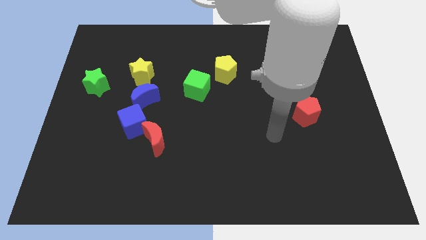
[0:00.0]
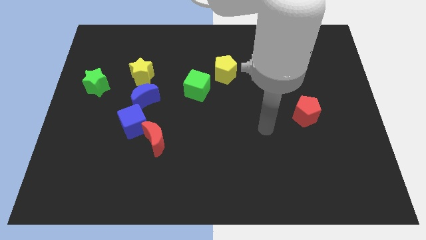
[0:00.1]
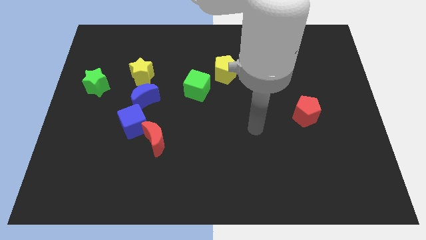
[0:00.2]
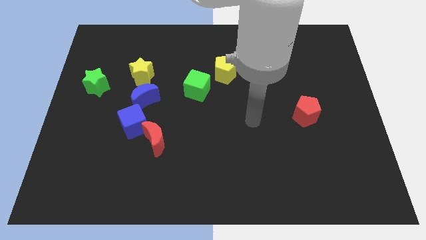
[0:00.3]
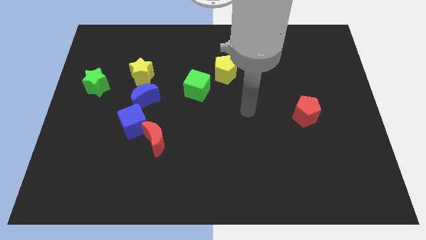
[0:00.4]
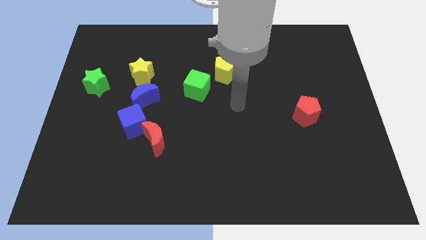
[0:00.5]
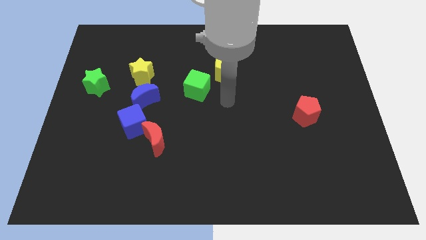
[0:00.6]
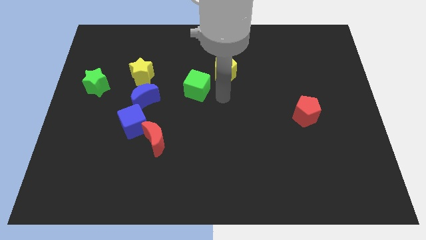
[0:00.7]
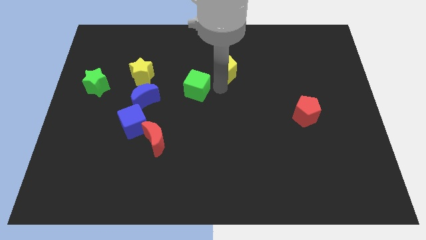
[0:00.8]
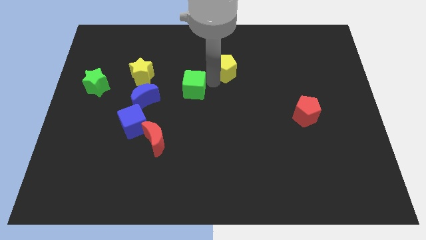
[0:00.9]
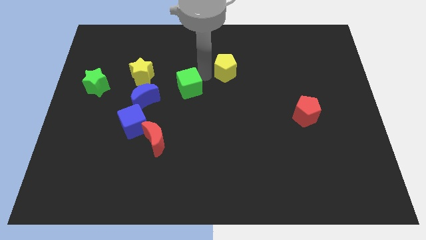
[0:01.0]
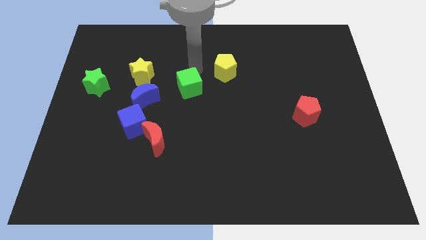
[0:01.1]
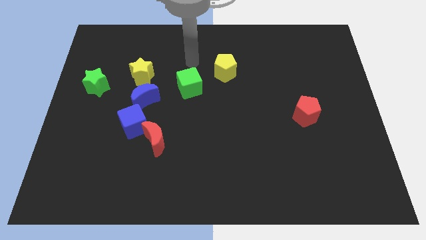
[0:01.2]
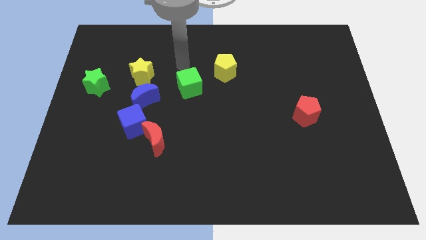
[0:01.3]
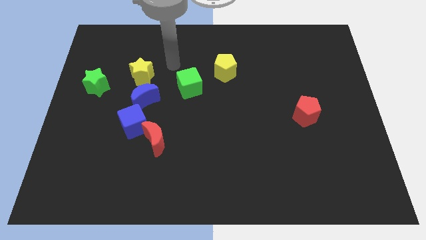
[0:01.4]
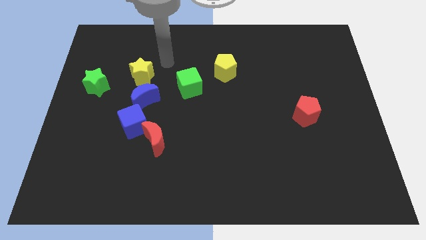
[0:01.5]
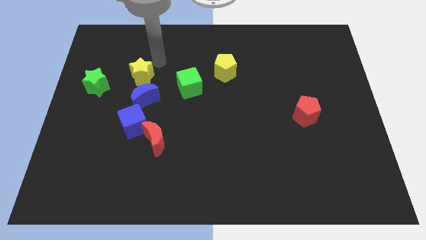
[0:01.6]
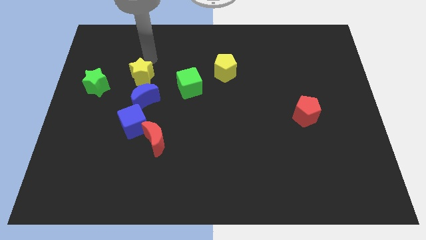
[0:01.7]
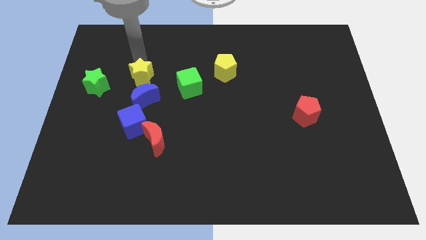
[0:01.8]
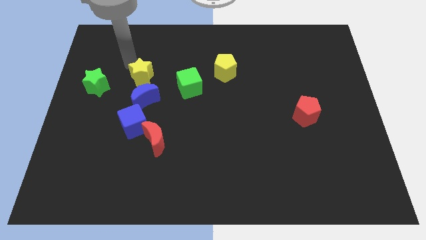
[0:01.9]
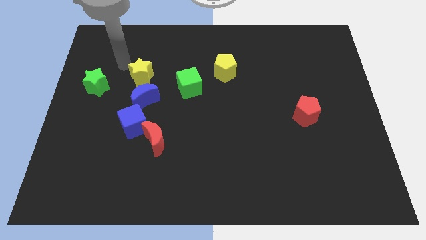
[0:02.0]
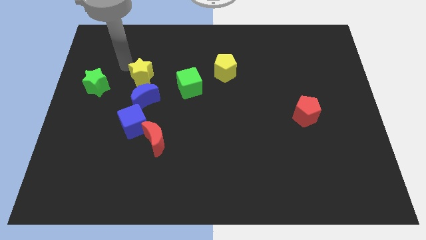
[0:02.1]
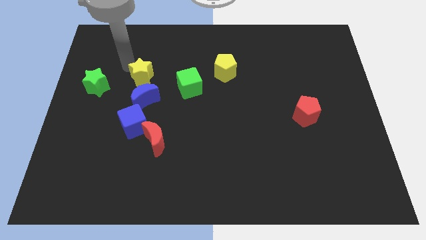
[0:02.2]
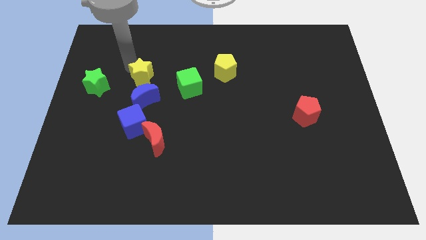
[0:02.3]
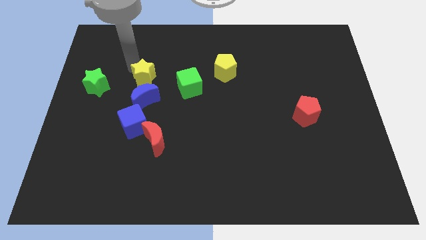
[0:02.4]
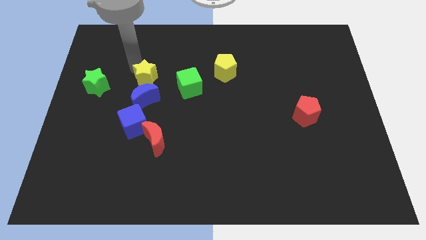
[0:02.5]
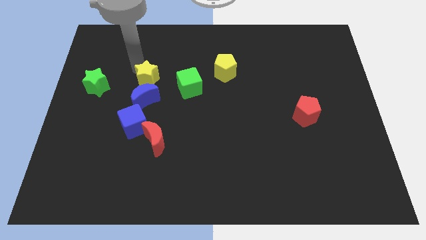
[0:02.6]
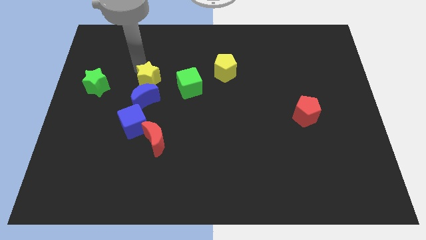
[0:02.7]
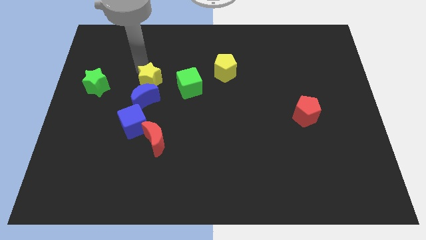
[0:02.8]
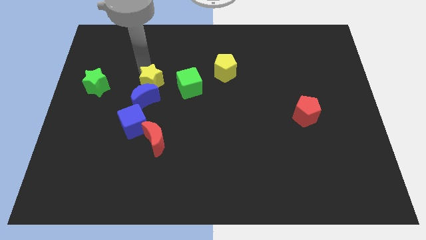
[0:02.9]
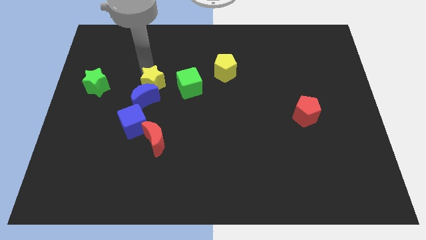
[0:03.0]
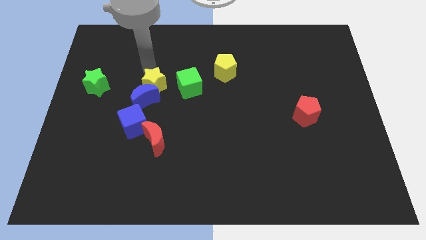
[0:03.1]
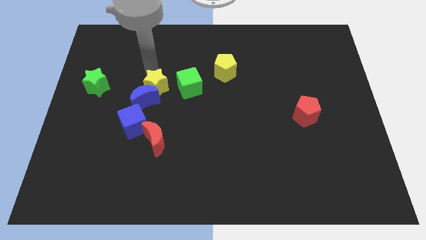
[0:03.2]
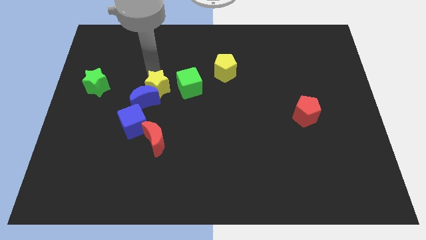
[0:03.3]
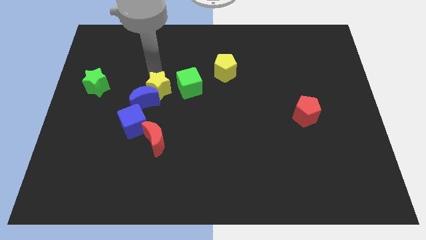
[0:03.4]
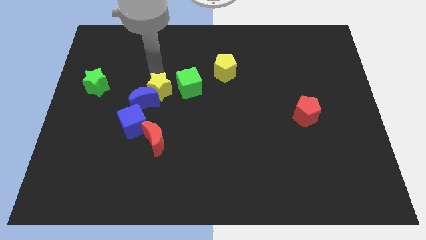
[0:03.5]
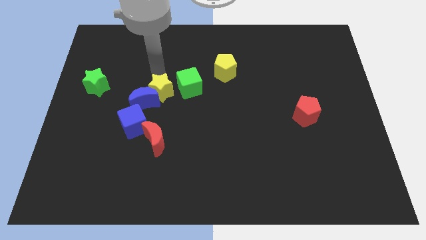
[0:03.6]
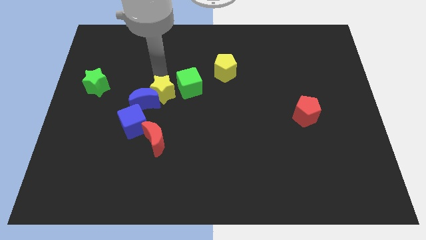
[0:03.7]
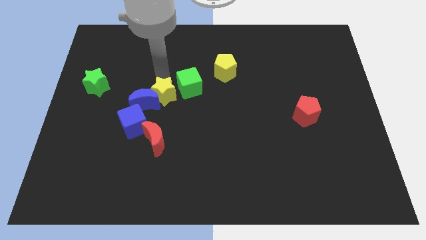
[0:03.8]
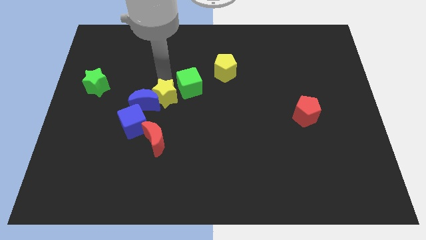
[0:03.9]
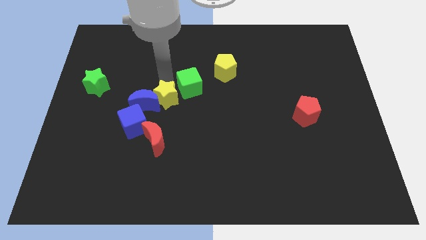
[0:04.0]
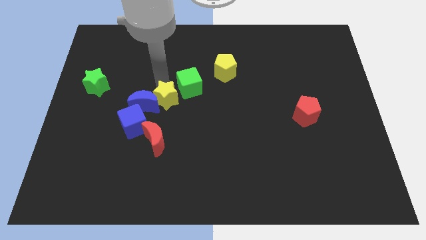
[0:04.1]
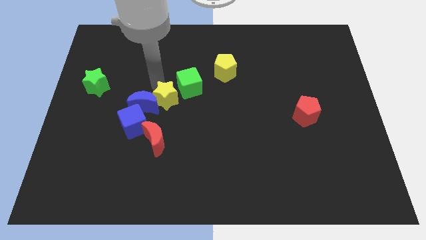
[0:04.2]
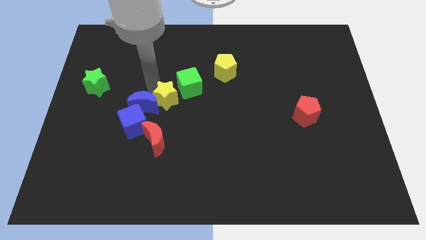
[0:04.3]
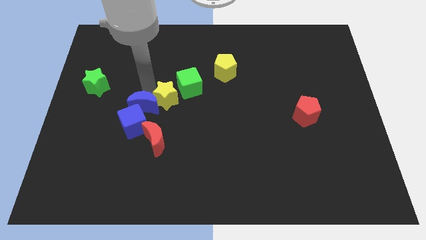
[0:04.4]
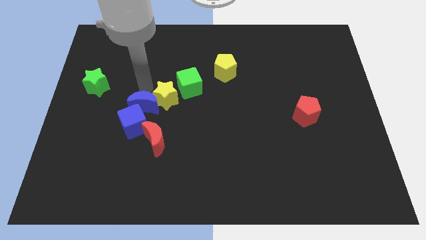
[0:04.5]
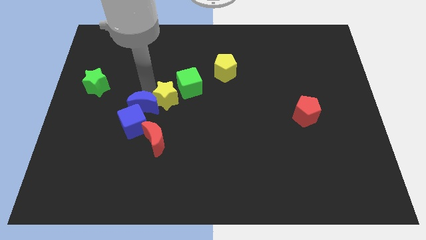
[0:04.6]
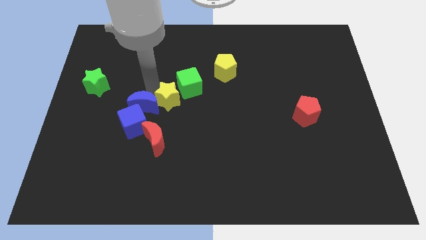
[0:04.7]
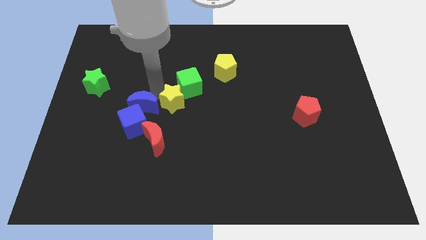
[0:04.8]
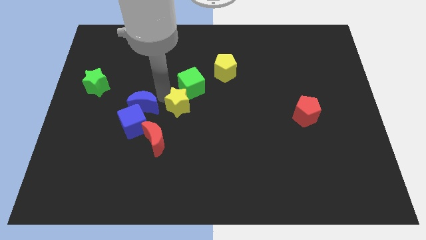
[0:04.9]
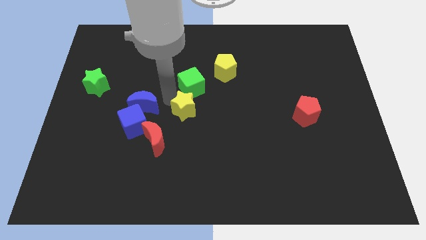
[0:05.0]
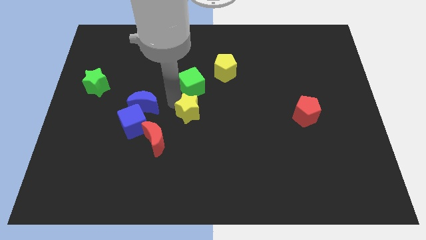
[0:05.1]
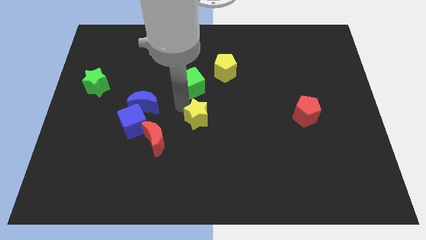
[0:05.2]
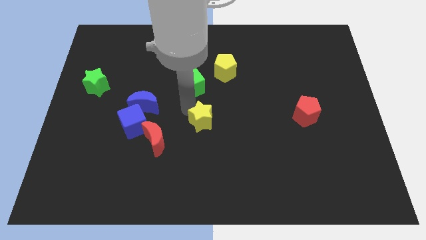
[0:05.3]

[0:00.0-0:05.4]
move the yellow star diagonally downwards and to the right

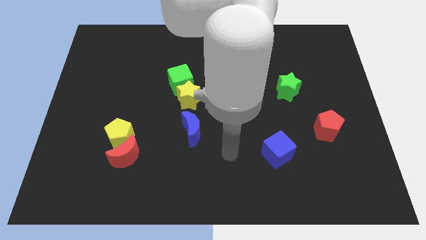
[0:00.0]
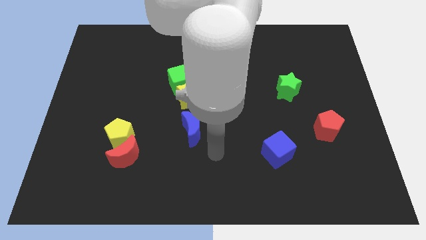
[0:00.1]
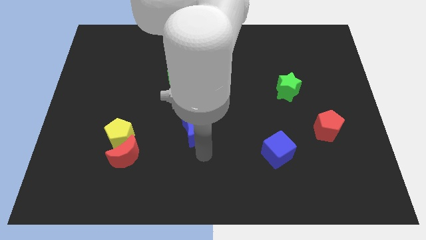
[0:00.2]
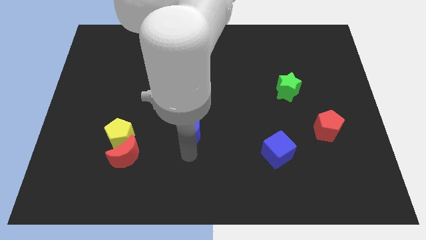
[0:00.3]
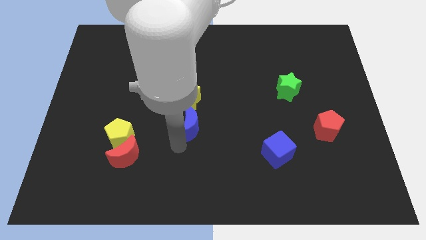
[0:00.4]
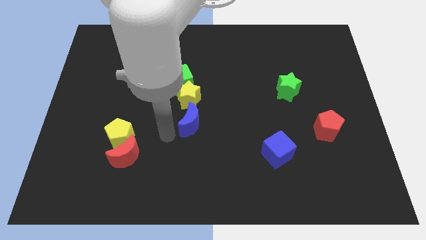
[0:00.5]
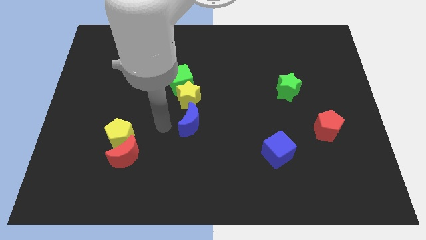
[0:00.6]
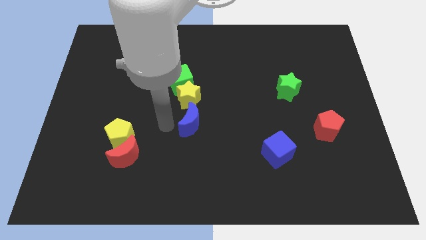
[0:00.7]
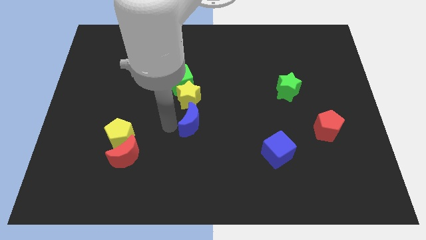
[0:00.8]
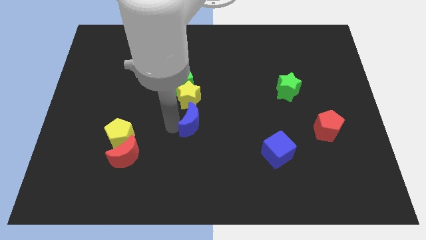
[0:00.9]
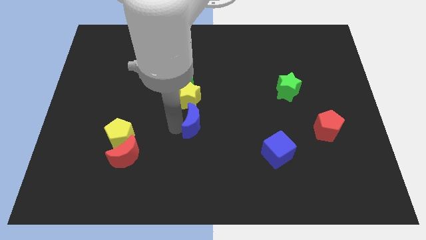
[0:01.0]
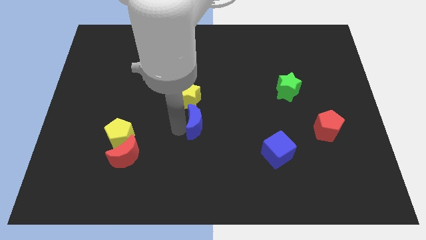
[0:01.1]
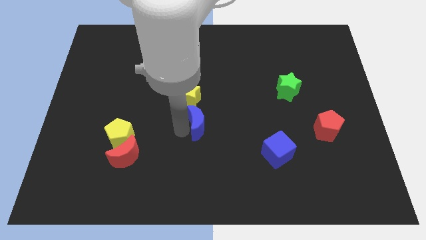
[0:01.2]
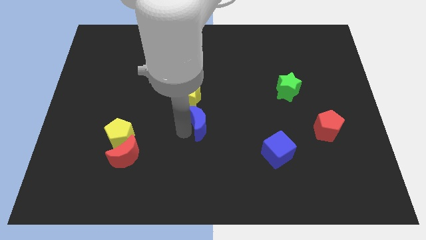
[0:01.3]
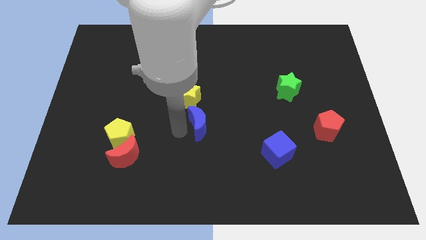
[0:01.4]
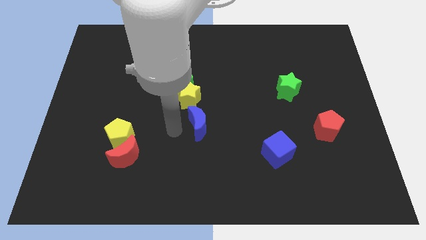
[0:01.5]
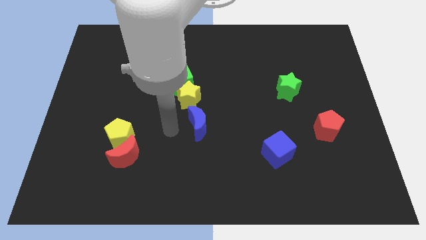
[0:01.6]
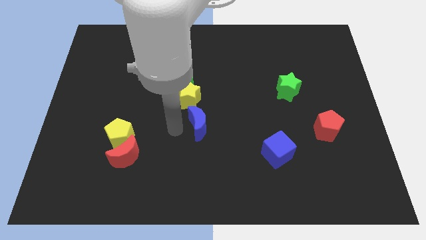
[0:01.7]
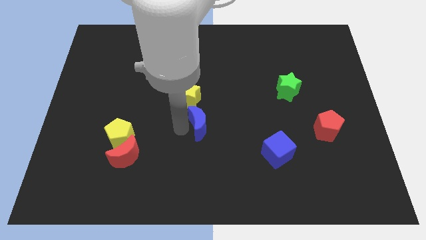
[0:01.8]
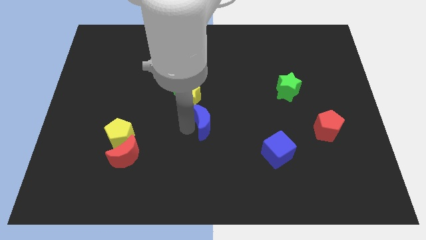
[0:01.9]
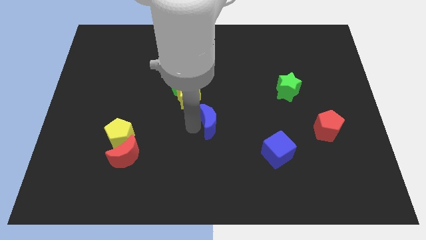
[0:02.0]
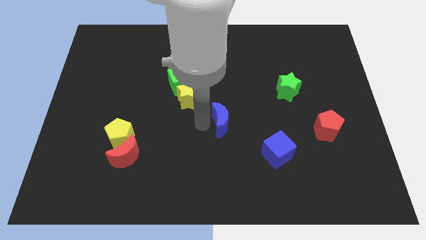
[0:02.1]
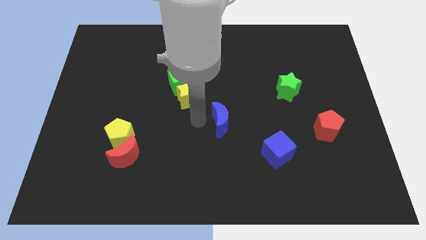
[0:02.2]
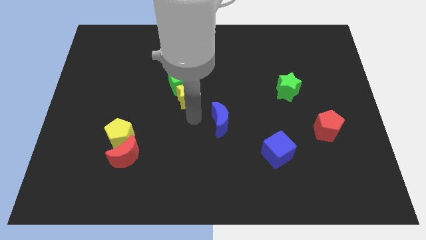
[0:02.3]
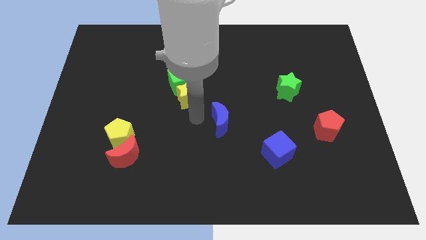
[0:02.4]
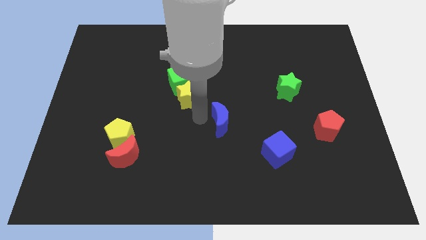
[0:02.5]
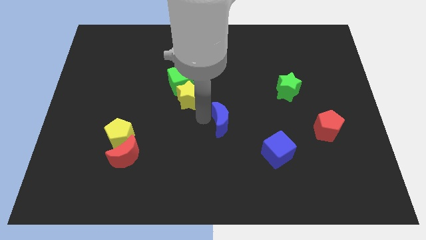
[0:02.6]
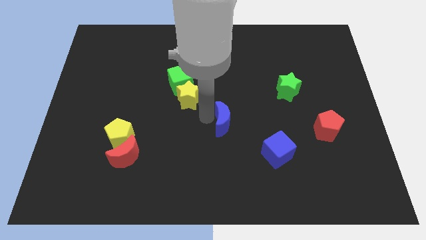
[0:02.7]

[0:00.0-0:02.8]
slightly slide the blue moon right
